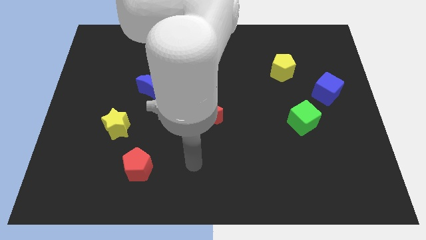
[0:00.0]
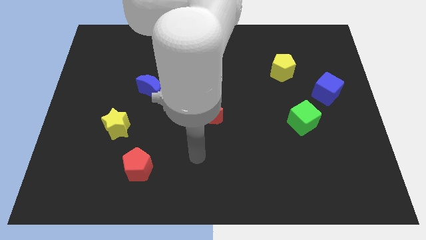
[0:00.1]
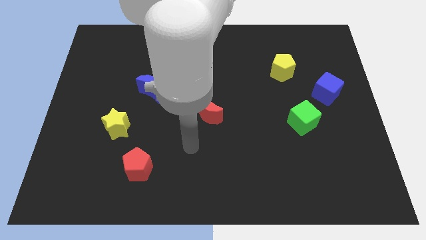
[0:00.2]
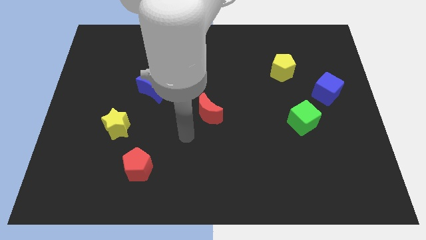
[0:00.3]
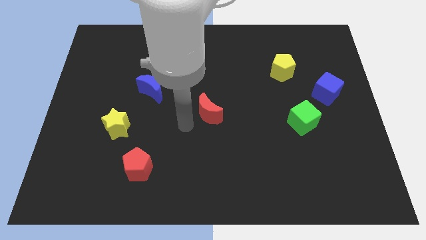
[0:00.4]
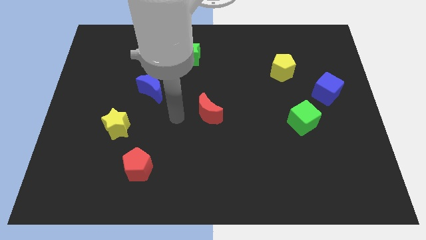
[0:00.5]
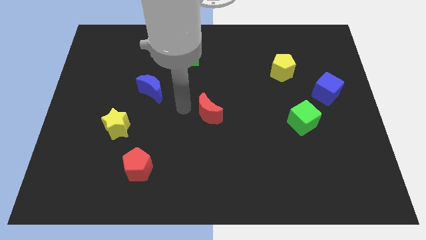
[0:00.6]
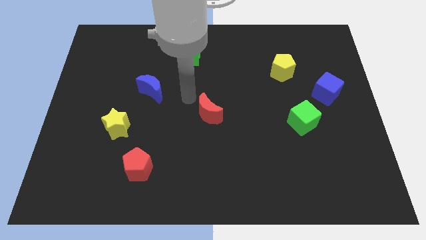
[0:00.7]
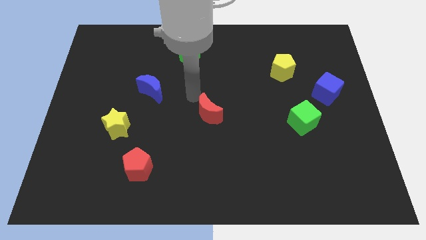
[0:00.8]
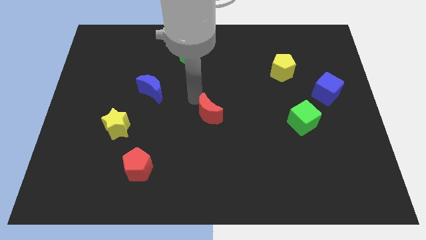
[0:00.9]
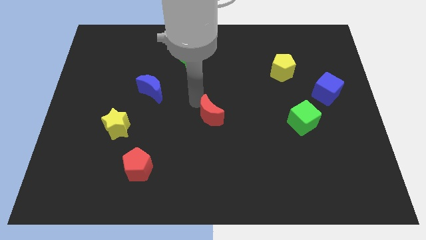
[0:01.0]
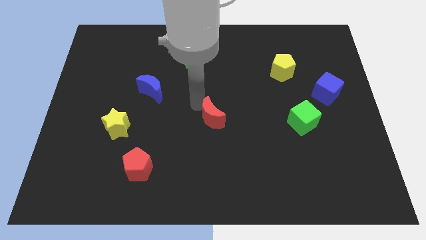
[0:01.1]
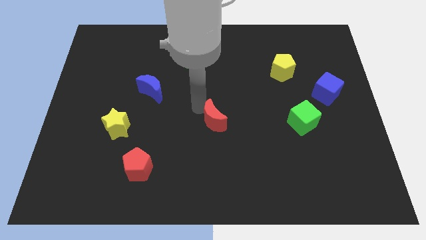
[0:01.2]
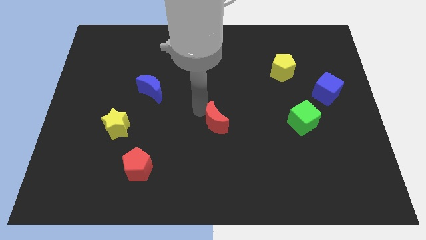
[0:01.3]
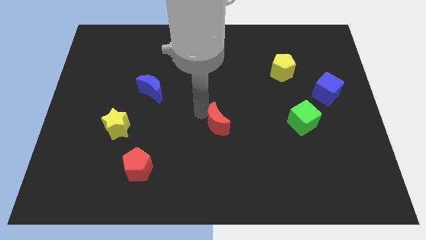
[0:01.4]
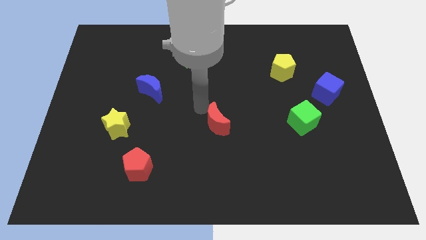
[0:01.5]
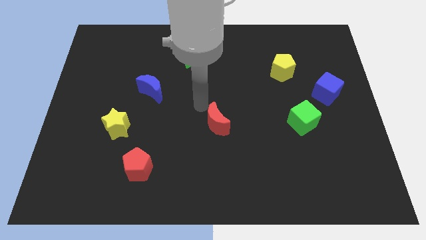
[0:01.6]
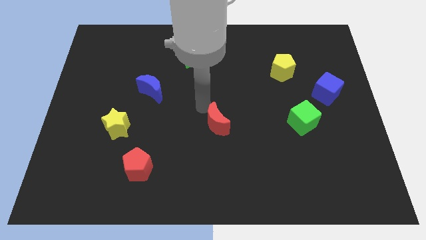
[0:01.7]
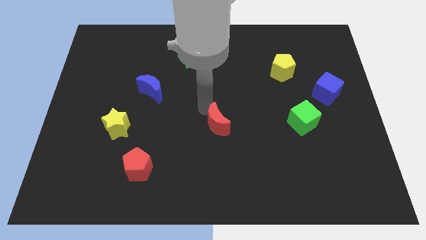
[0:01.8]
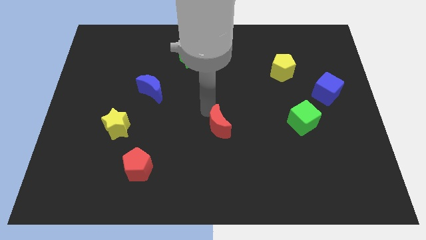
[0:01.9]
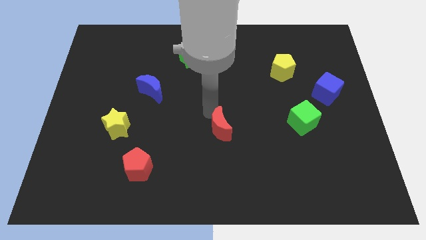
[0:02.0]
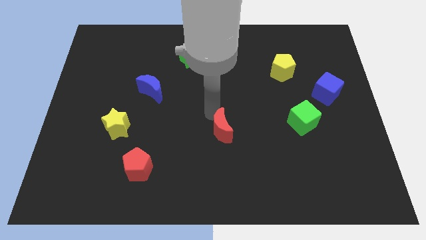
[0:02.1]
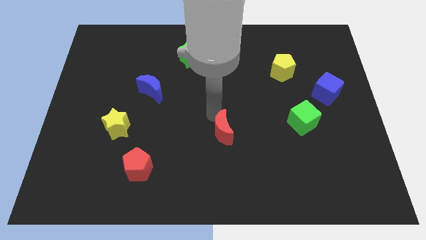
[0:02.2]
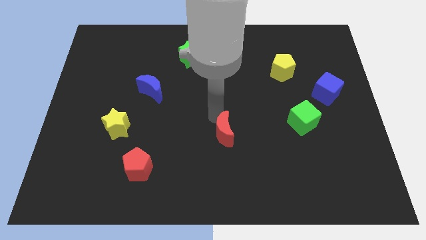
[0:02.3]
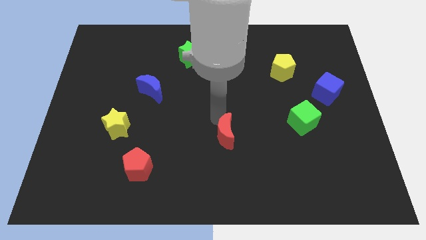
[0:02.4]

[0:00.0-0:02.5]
push the red moon a little bit diagonally downwards and to the right

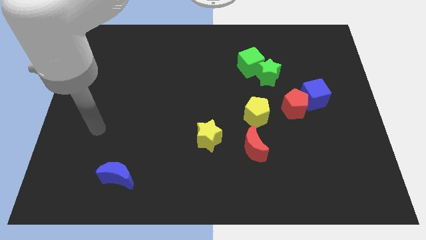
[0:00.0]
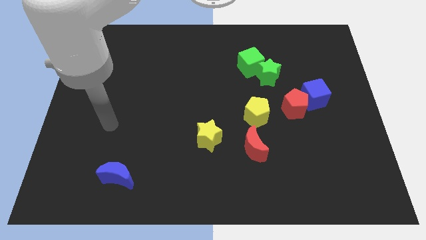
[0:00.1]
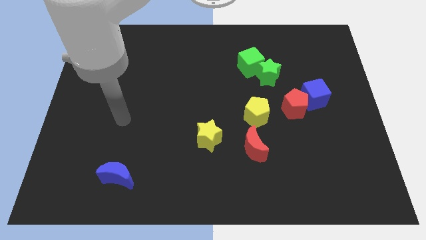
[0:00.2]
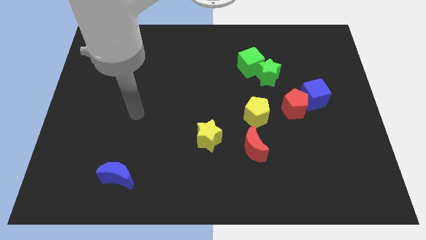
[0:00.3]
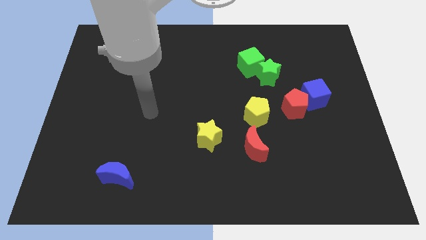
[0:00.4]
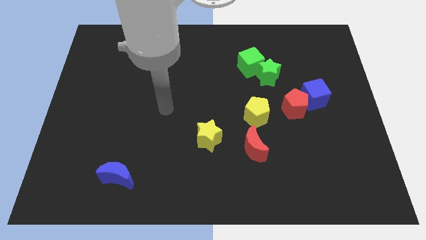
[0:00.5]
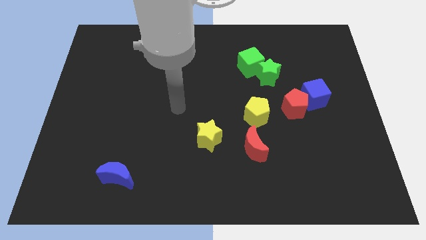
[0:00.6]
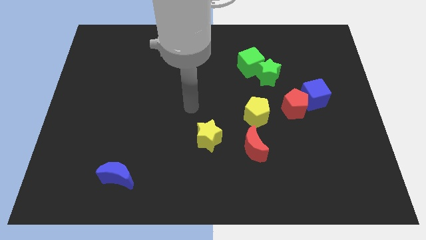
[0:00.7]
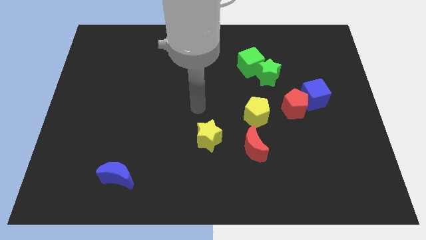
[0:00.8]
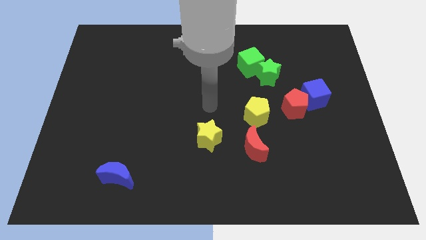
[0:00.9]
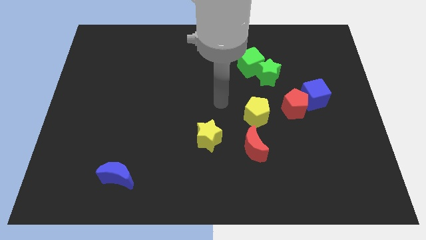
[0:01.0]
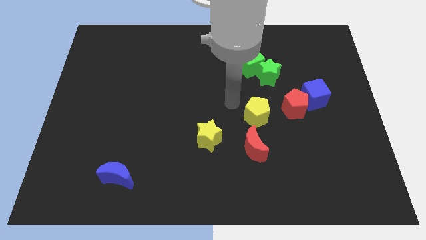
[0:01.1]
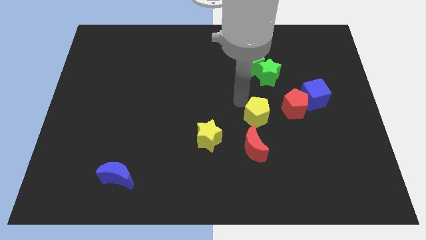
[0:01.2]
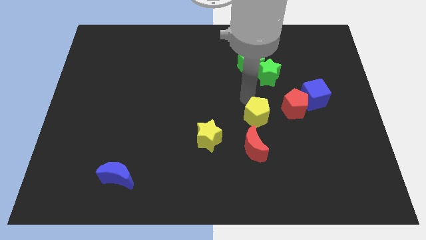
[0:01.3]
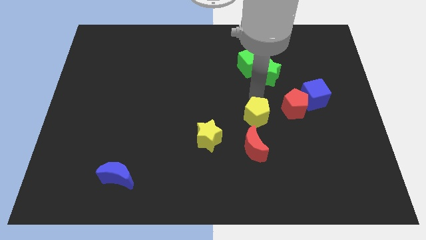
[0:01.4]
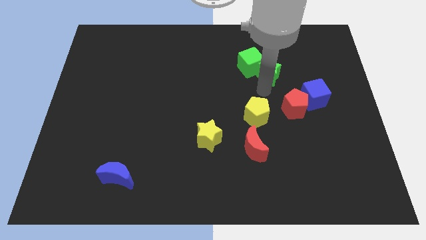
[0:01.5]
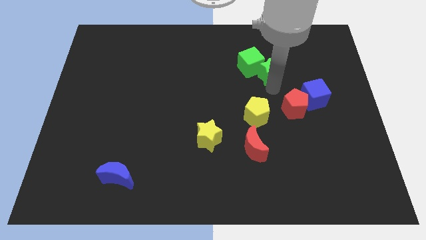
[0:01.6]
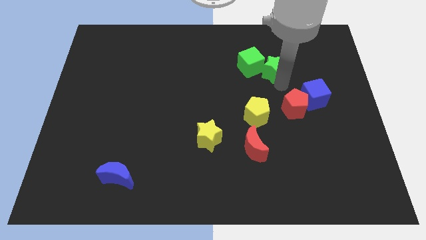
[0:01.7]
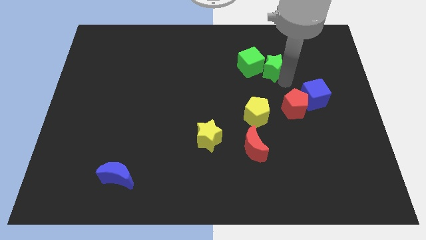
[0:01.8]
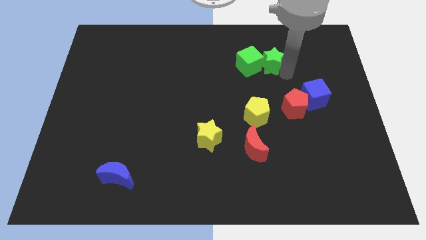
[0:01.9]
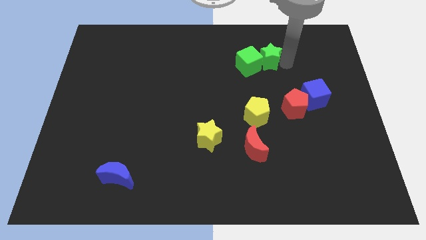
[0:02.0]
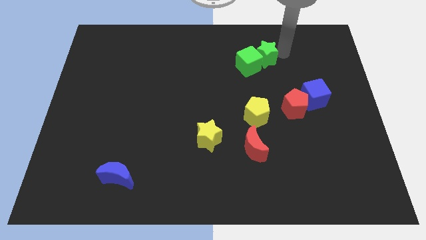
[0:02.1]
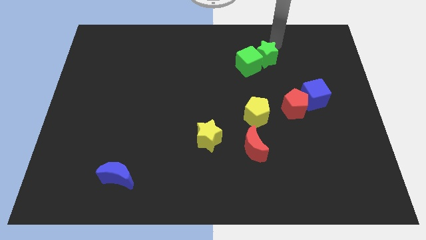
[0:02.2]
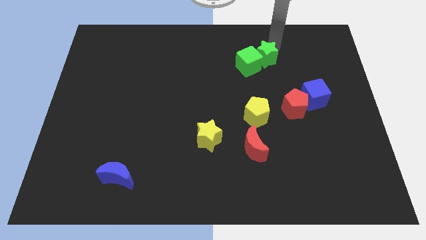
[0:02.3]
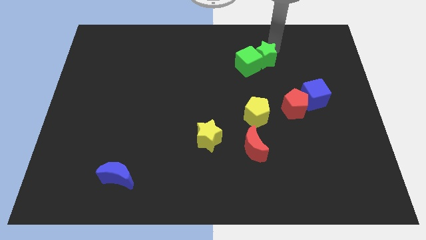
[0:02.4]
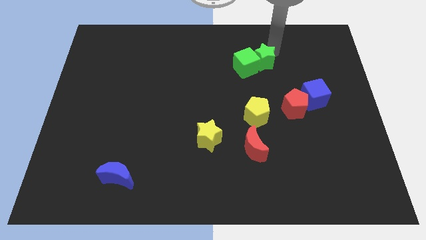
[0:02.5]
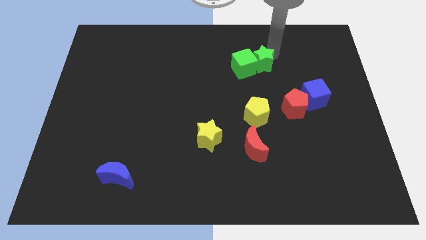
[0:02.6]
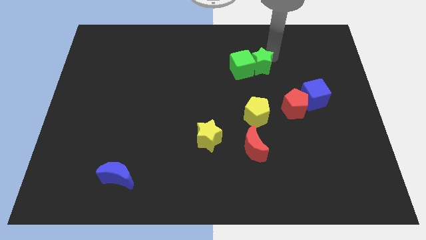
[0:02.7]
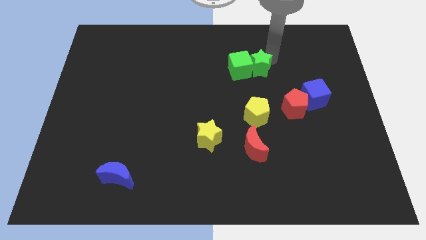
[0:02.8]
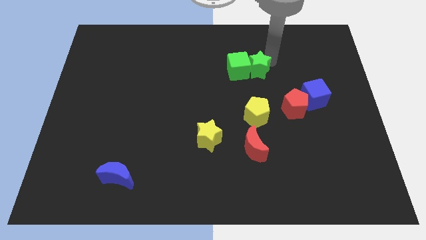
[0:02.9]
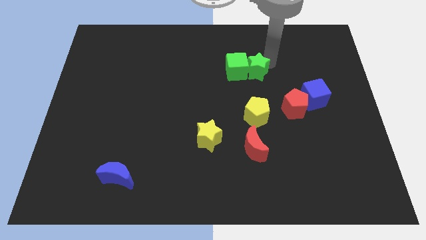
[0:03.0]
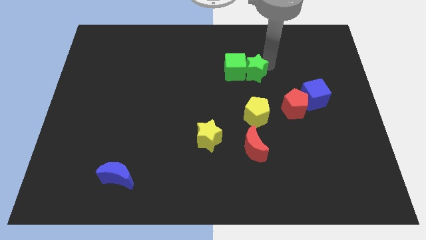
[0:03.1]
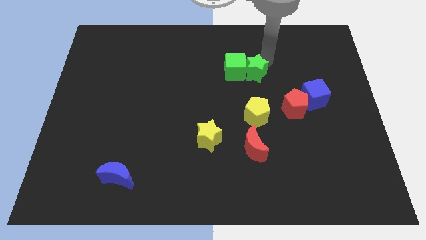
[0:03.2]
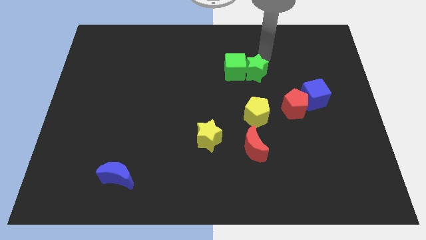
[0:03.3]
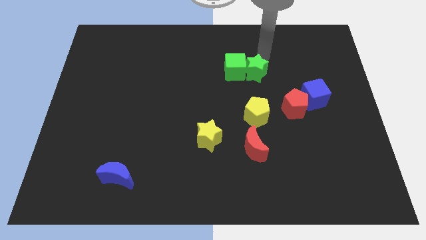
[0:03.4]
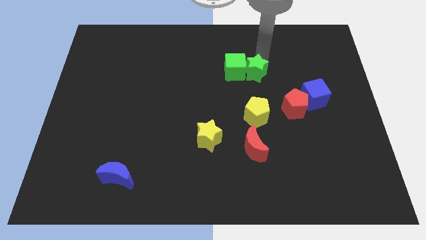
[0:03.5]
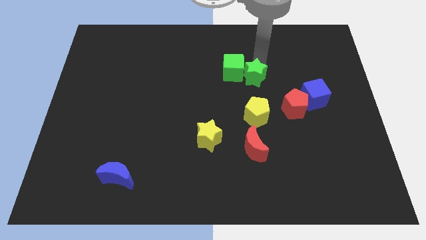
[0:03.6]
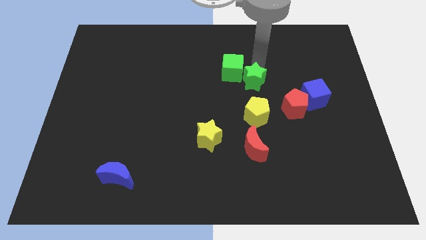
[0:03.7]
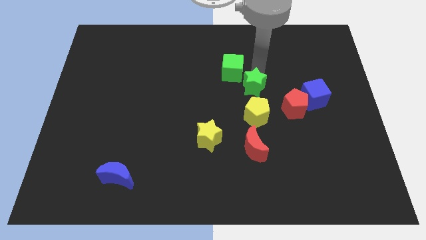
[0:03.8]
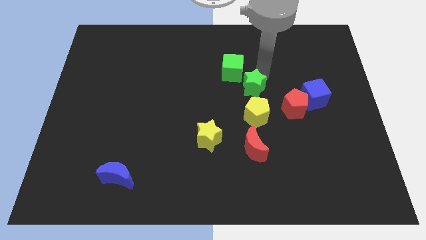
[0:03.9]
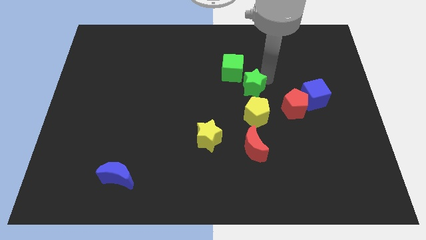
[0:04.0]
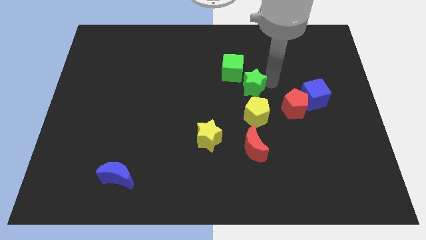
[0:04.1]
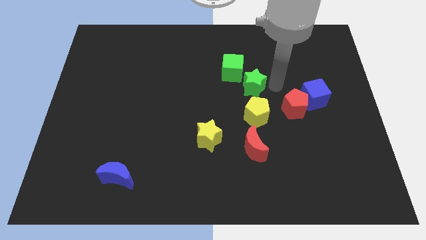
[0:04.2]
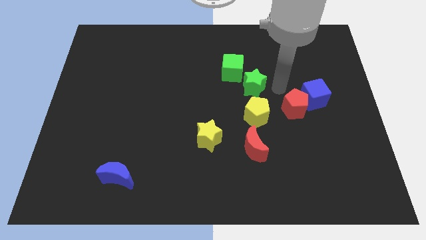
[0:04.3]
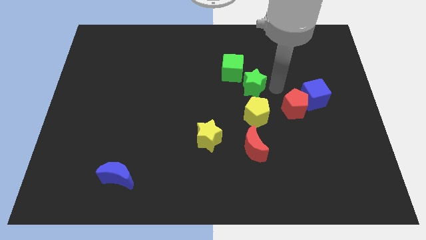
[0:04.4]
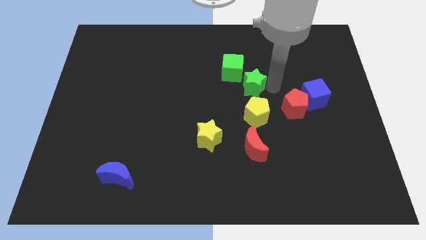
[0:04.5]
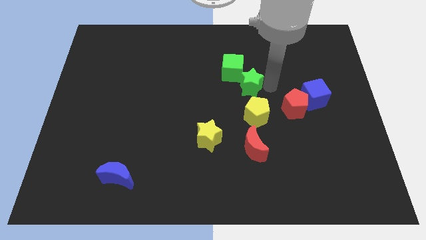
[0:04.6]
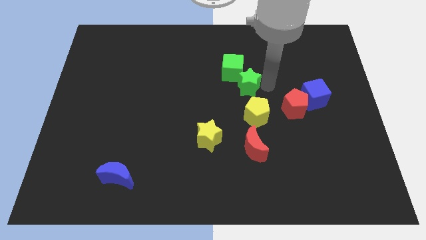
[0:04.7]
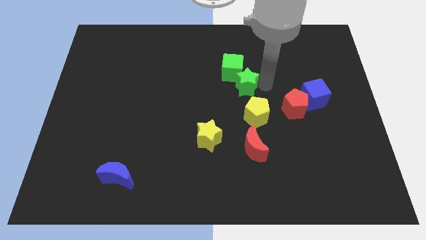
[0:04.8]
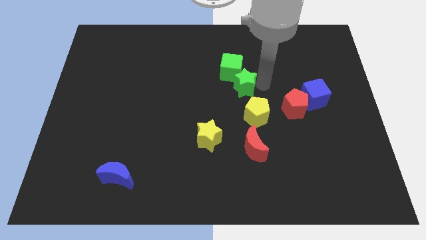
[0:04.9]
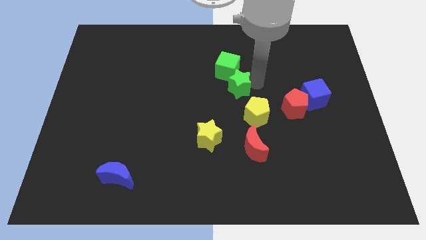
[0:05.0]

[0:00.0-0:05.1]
slightly push the green star to the left

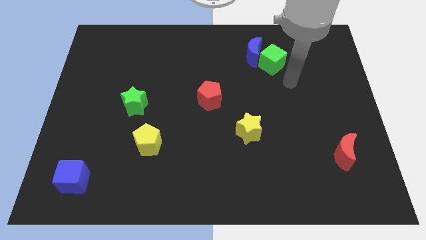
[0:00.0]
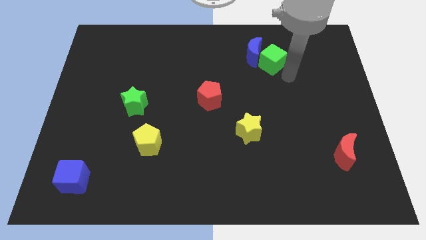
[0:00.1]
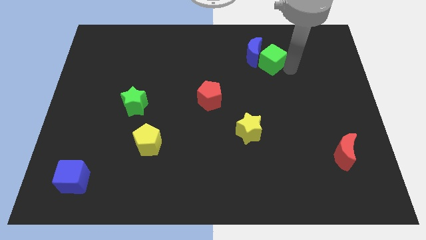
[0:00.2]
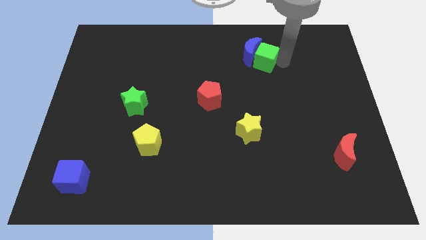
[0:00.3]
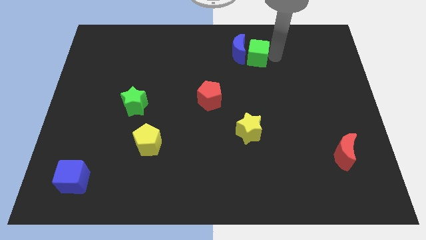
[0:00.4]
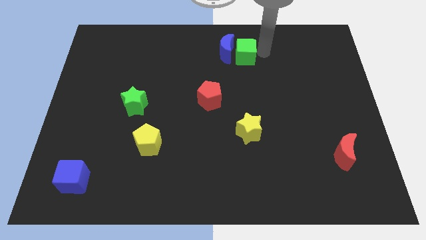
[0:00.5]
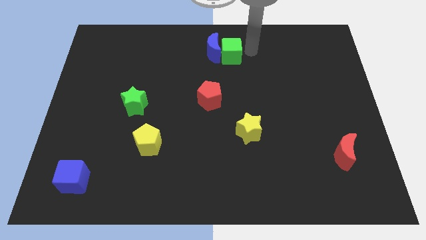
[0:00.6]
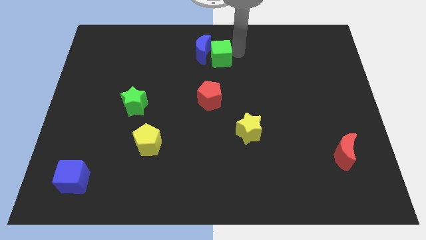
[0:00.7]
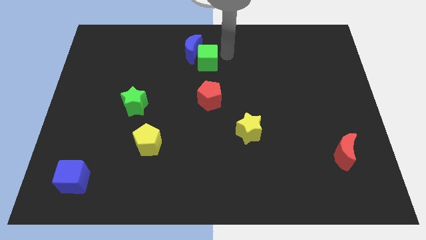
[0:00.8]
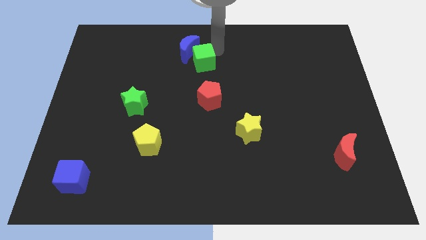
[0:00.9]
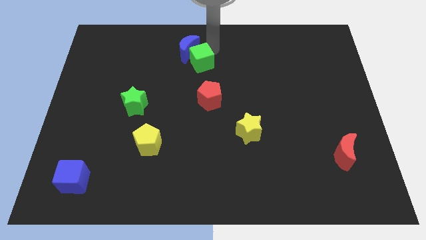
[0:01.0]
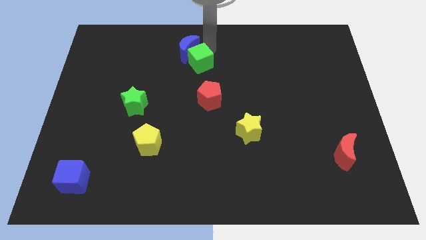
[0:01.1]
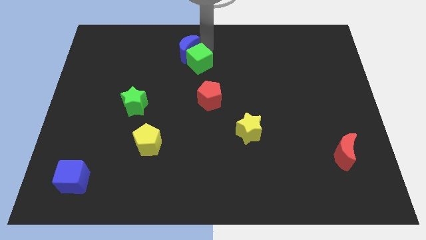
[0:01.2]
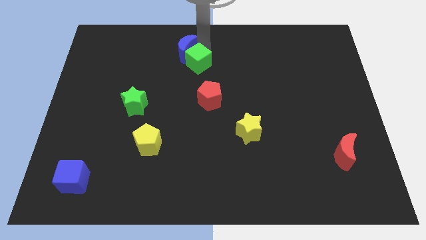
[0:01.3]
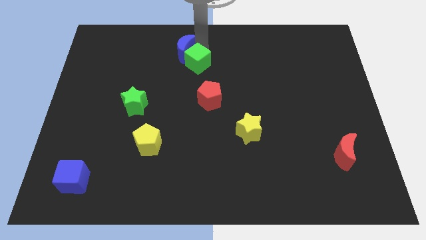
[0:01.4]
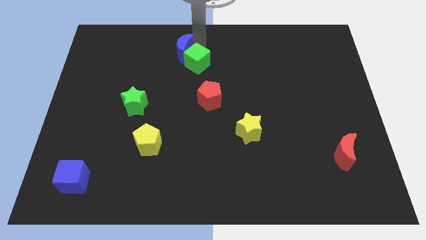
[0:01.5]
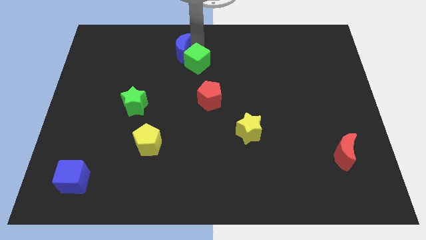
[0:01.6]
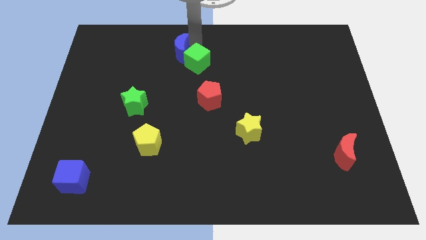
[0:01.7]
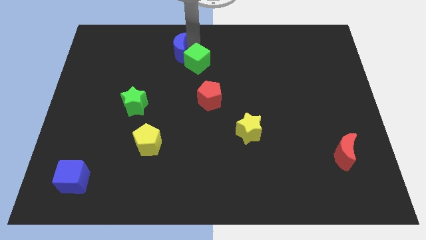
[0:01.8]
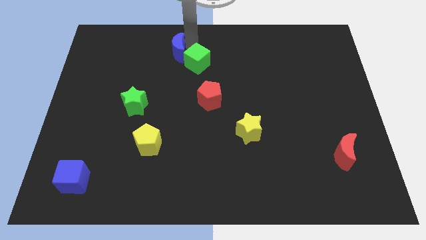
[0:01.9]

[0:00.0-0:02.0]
push the blue moon to the left
